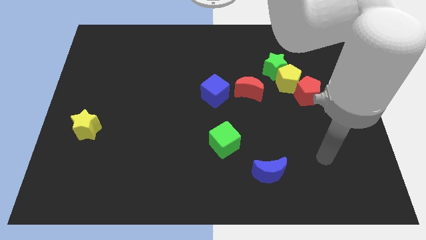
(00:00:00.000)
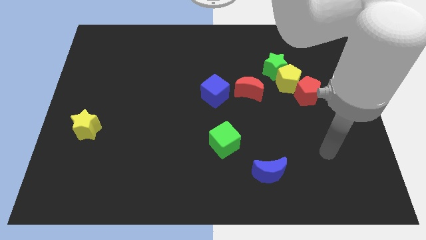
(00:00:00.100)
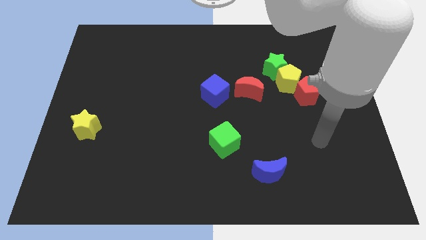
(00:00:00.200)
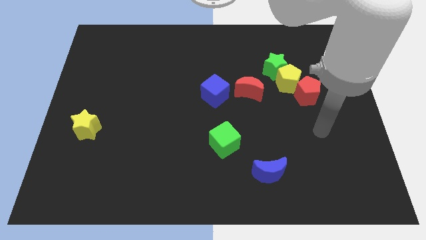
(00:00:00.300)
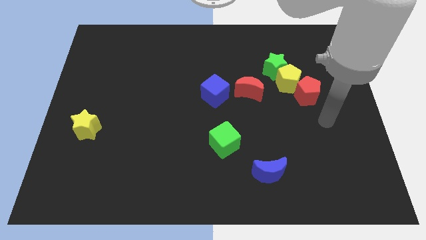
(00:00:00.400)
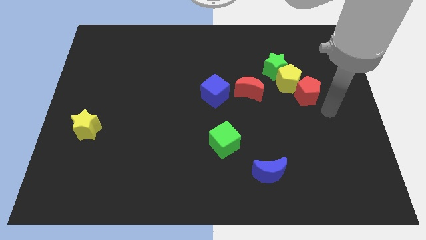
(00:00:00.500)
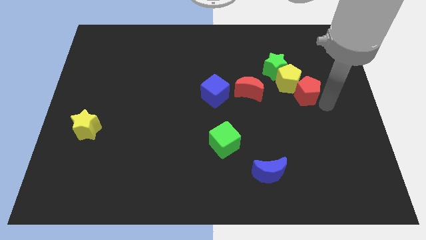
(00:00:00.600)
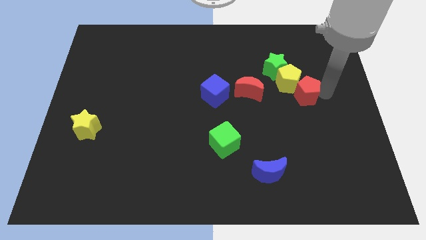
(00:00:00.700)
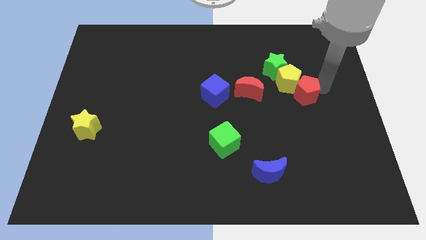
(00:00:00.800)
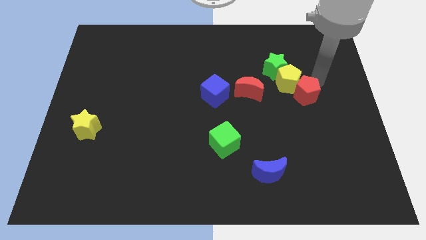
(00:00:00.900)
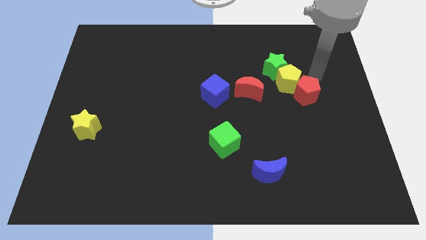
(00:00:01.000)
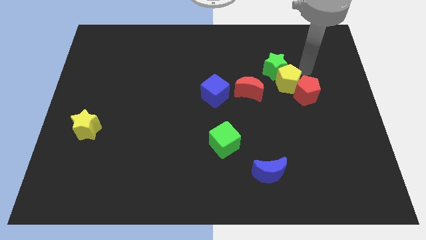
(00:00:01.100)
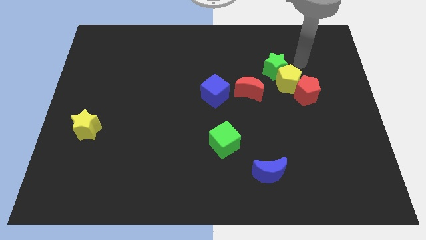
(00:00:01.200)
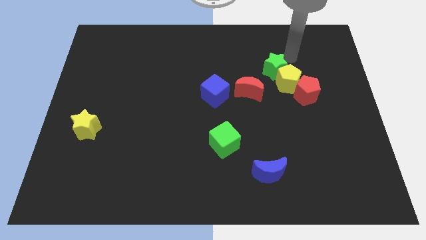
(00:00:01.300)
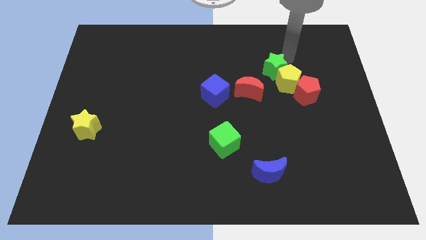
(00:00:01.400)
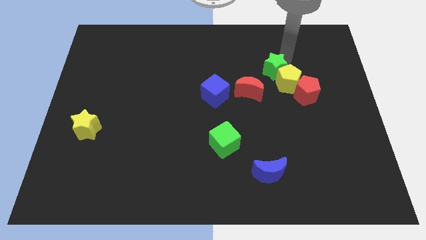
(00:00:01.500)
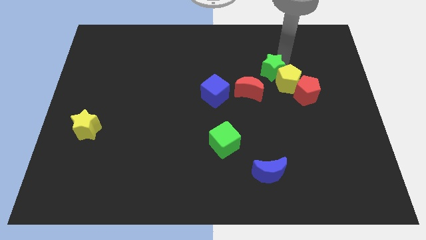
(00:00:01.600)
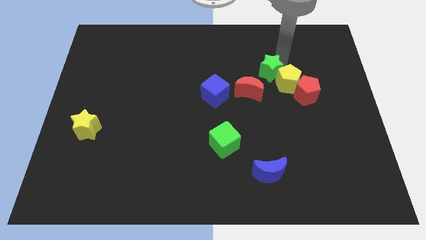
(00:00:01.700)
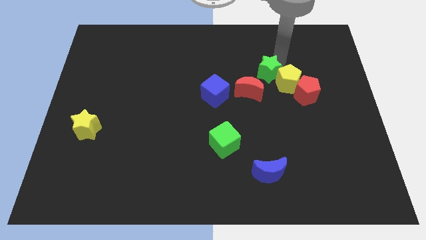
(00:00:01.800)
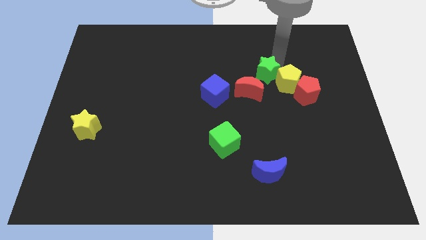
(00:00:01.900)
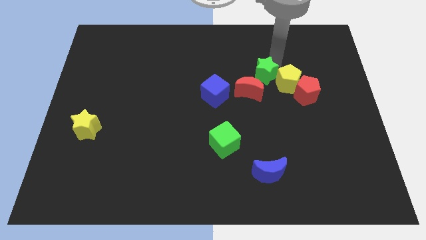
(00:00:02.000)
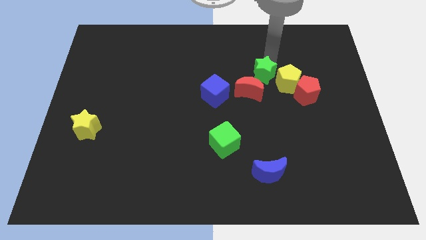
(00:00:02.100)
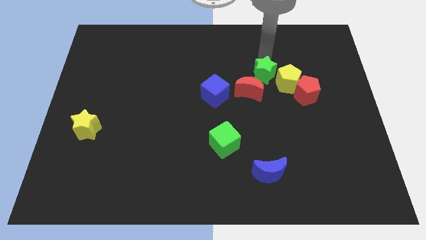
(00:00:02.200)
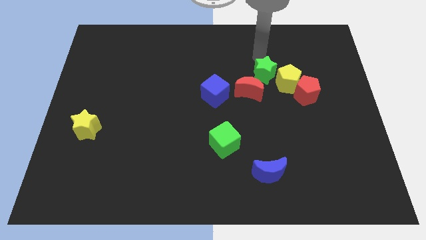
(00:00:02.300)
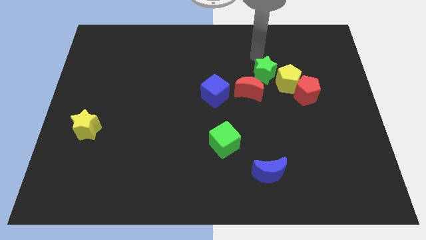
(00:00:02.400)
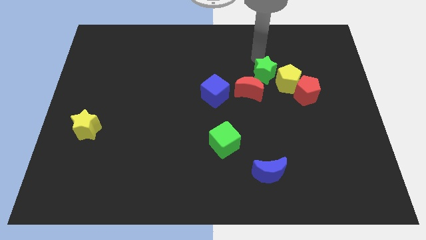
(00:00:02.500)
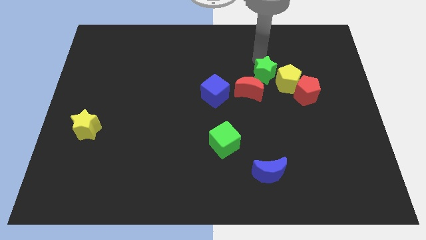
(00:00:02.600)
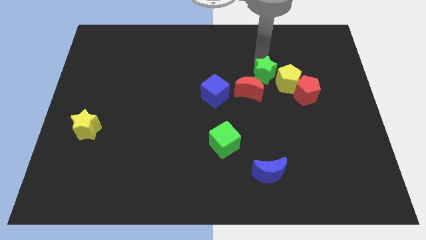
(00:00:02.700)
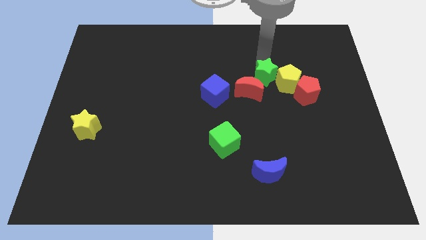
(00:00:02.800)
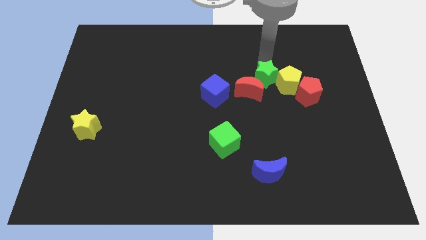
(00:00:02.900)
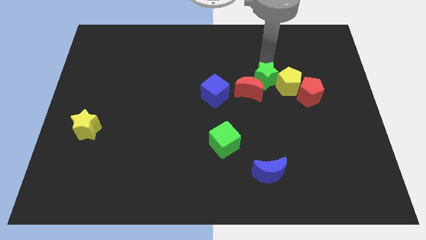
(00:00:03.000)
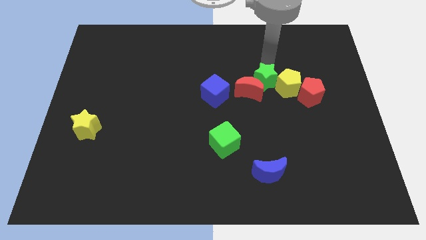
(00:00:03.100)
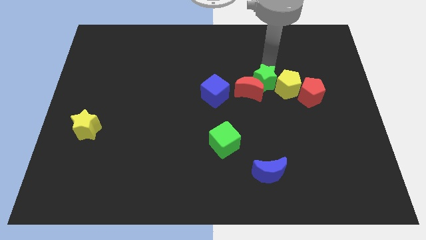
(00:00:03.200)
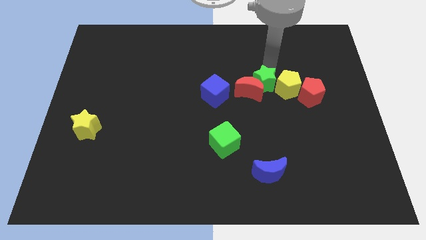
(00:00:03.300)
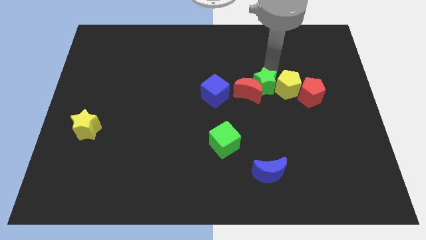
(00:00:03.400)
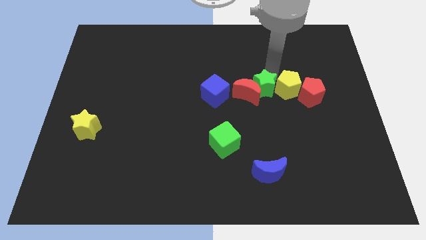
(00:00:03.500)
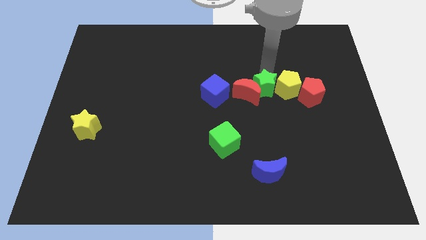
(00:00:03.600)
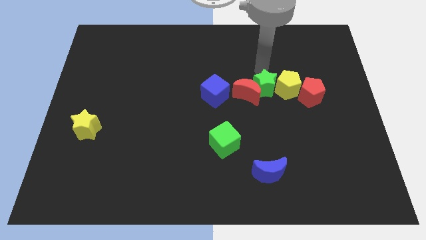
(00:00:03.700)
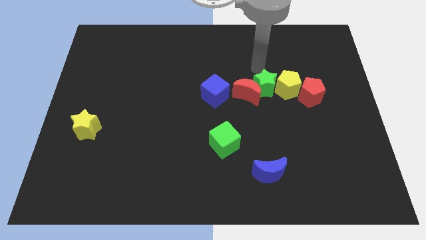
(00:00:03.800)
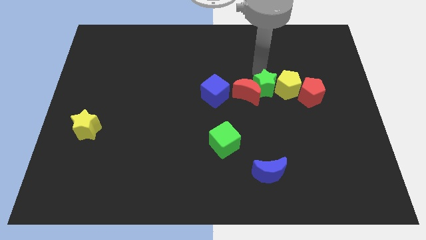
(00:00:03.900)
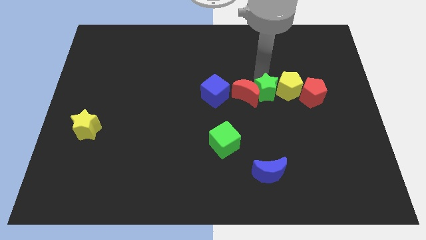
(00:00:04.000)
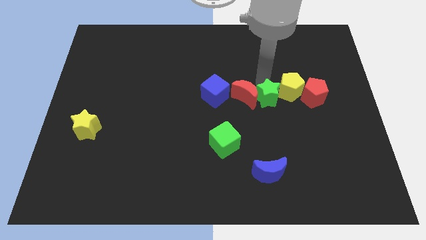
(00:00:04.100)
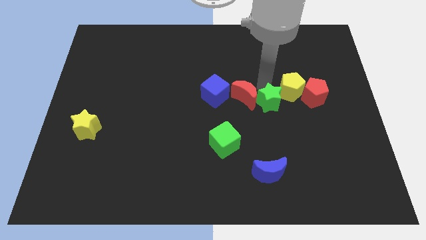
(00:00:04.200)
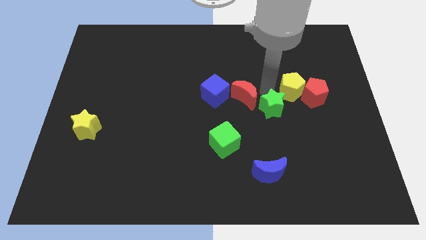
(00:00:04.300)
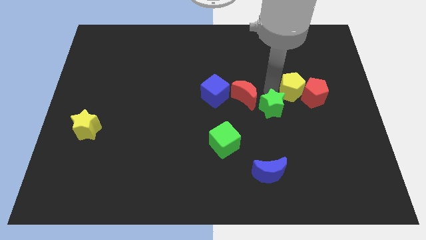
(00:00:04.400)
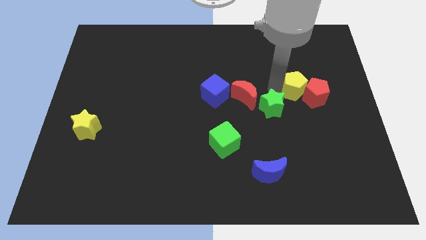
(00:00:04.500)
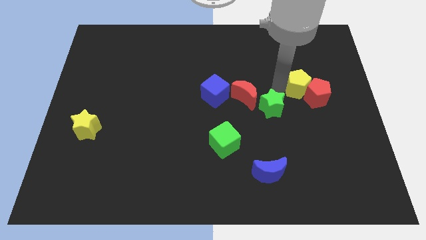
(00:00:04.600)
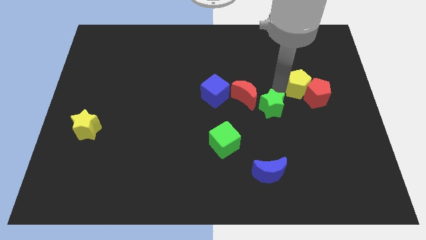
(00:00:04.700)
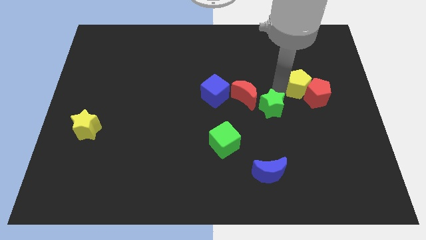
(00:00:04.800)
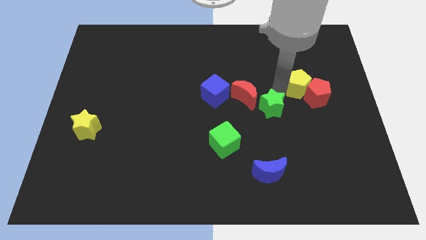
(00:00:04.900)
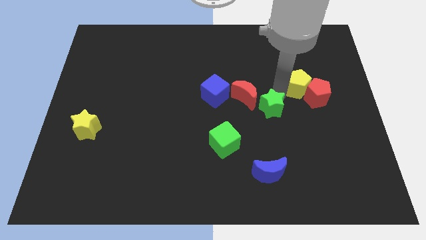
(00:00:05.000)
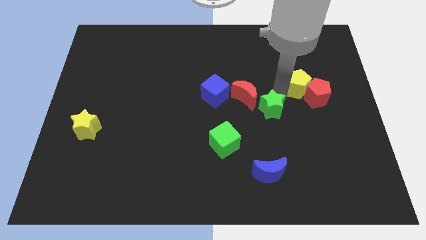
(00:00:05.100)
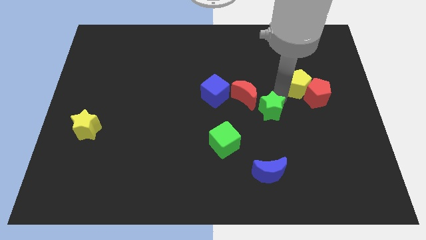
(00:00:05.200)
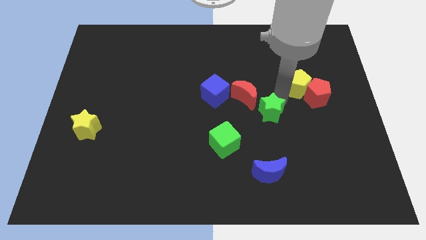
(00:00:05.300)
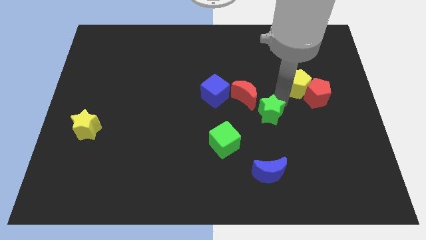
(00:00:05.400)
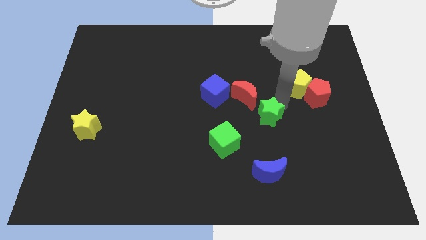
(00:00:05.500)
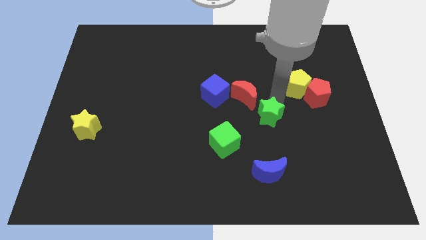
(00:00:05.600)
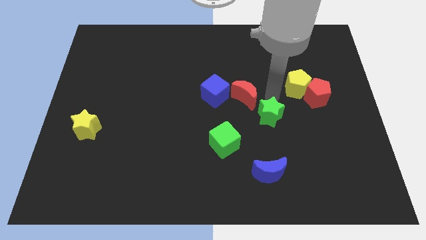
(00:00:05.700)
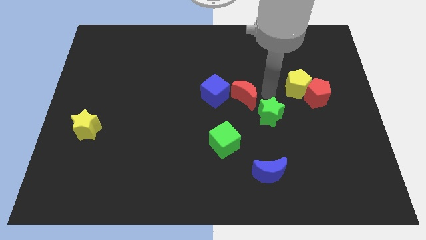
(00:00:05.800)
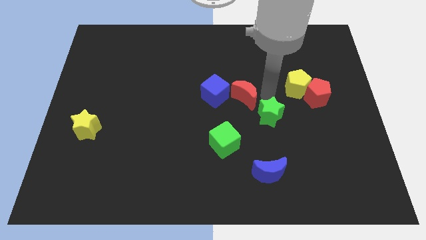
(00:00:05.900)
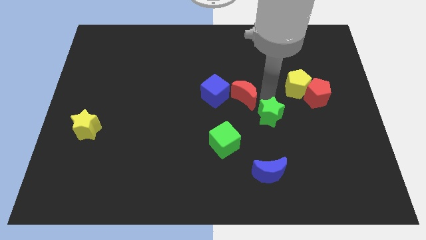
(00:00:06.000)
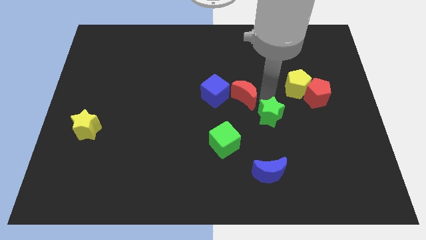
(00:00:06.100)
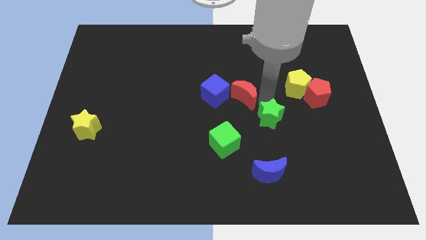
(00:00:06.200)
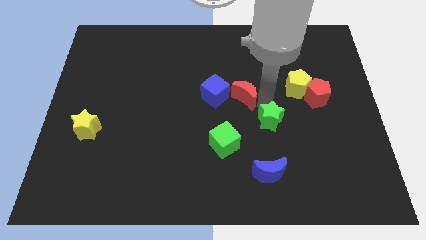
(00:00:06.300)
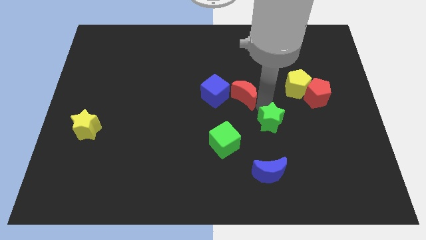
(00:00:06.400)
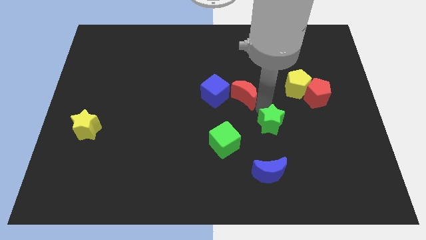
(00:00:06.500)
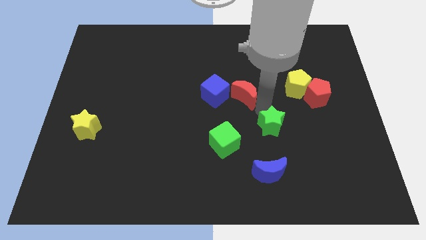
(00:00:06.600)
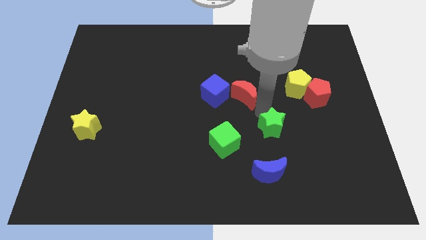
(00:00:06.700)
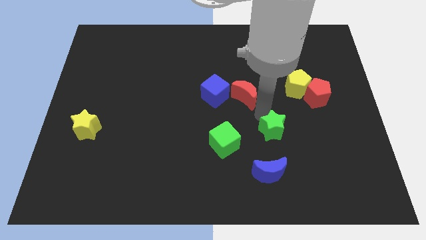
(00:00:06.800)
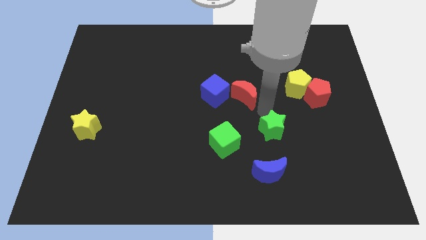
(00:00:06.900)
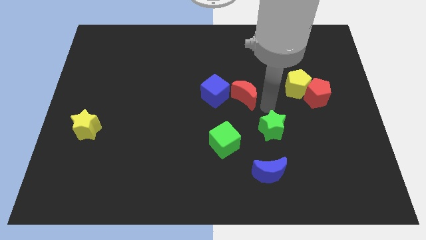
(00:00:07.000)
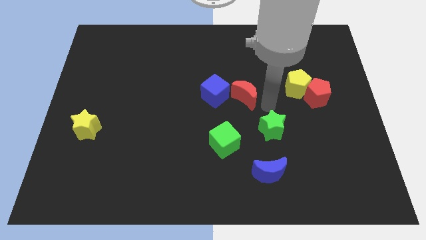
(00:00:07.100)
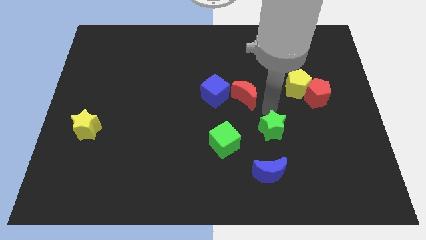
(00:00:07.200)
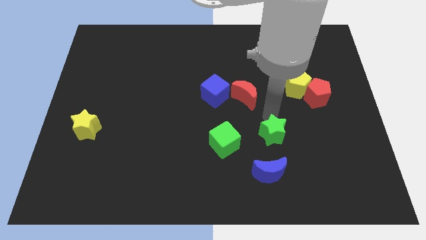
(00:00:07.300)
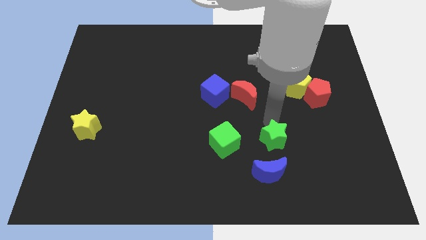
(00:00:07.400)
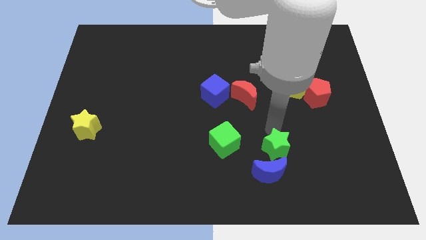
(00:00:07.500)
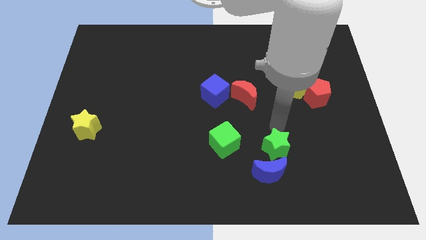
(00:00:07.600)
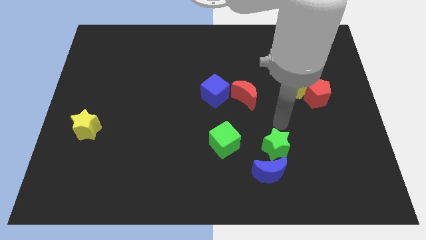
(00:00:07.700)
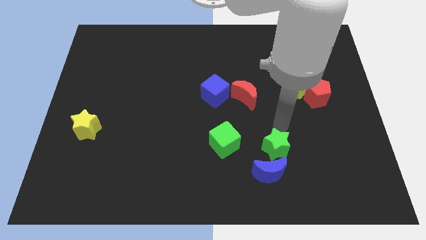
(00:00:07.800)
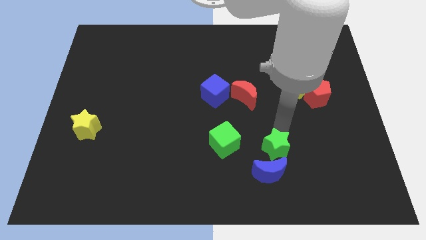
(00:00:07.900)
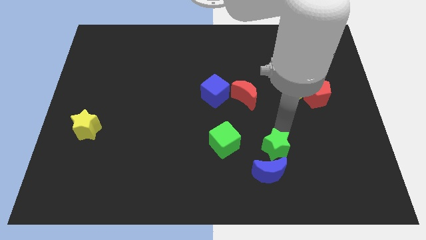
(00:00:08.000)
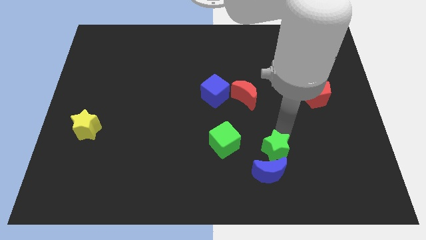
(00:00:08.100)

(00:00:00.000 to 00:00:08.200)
slide the green star to the blue moon

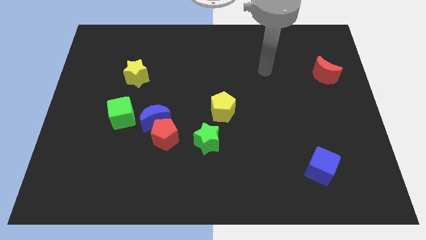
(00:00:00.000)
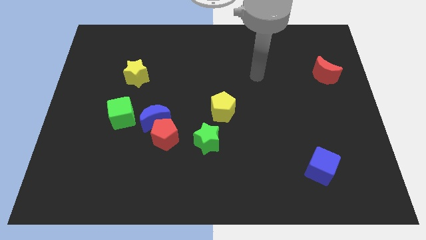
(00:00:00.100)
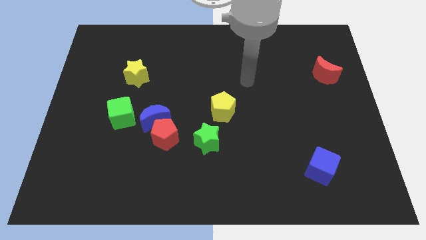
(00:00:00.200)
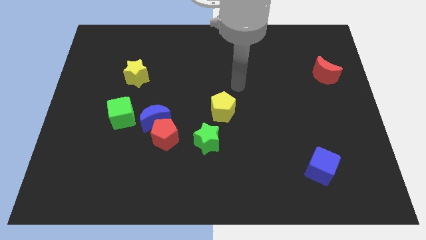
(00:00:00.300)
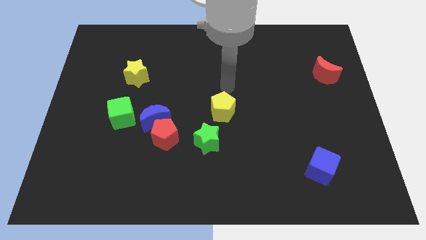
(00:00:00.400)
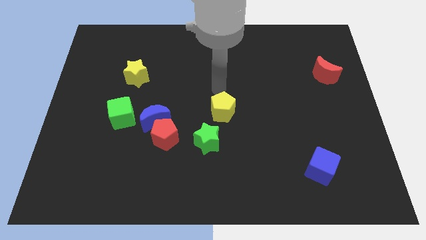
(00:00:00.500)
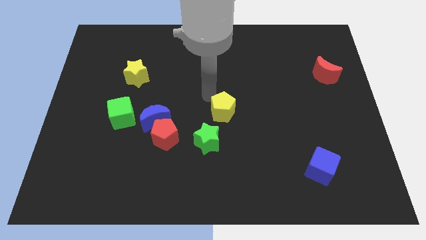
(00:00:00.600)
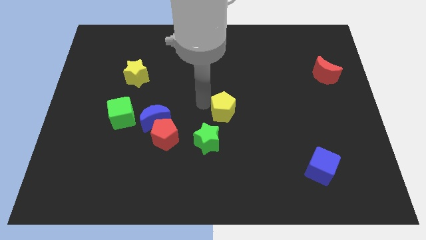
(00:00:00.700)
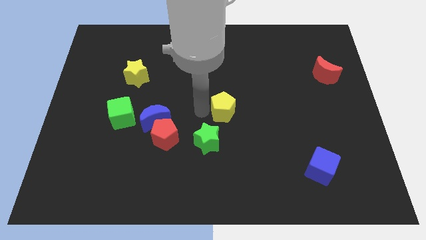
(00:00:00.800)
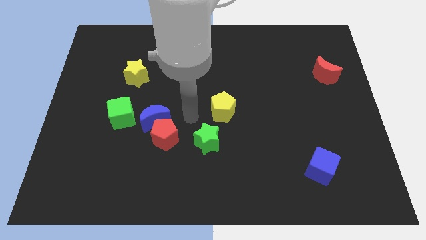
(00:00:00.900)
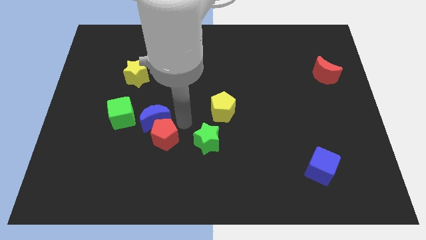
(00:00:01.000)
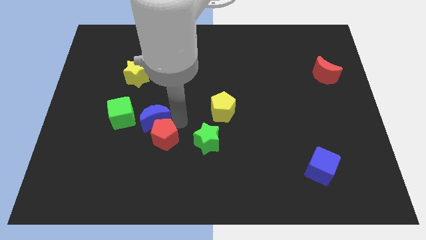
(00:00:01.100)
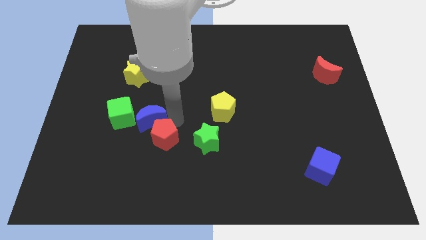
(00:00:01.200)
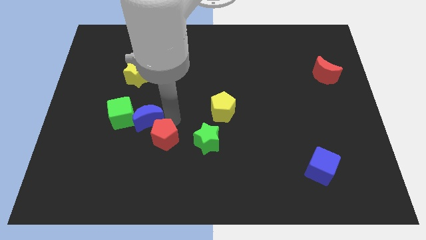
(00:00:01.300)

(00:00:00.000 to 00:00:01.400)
slide the blue moon close to the green cube
